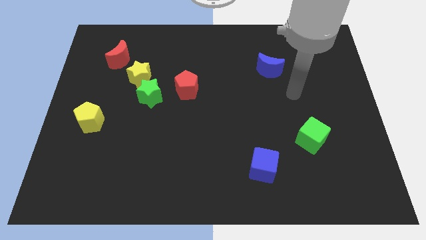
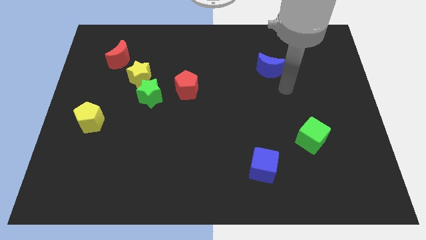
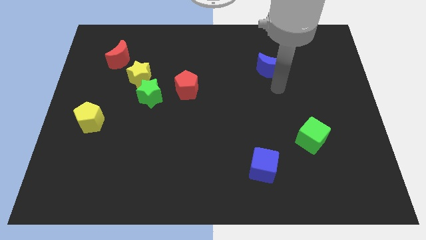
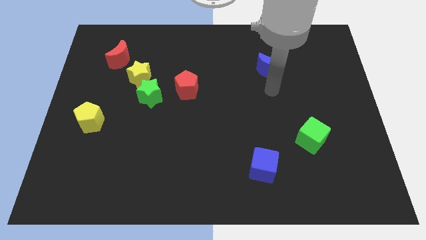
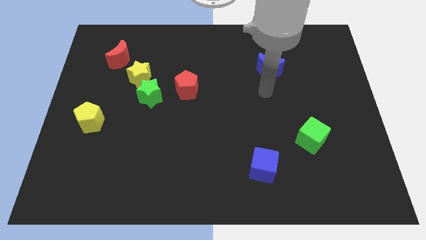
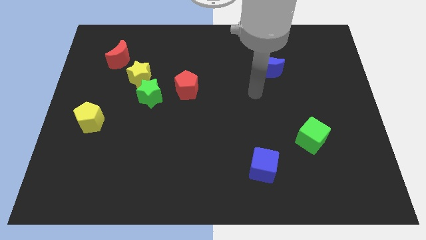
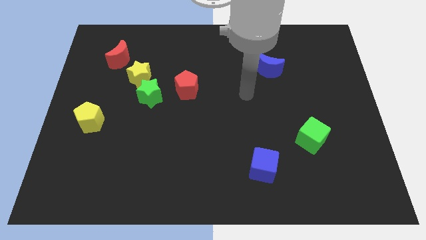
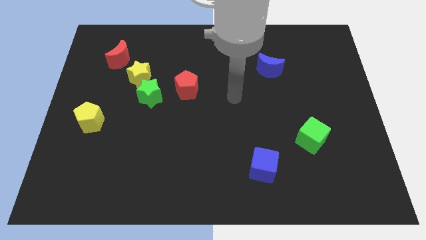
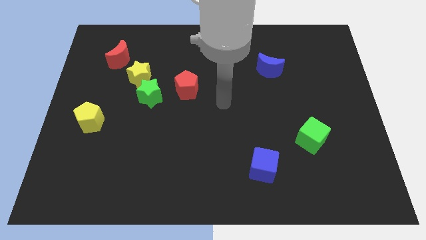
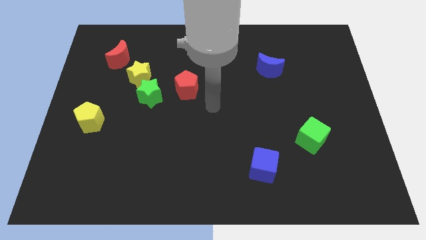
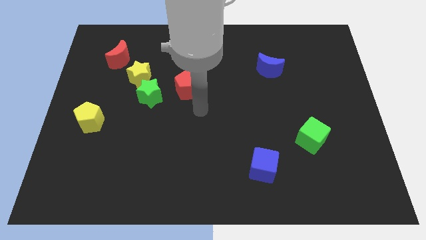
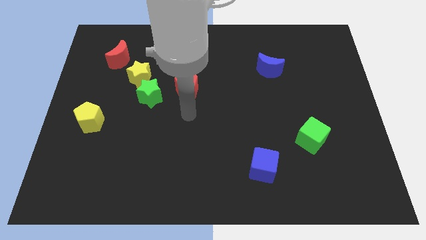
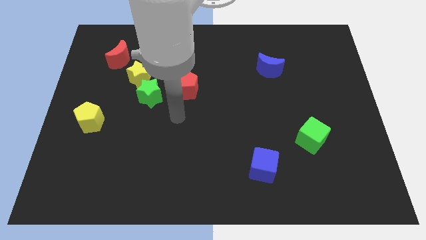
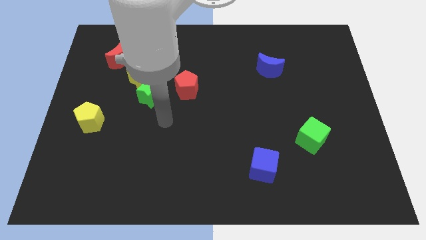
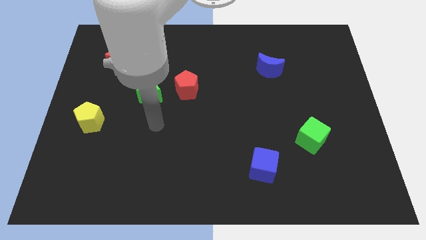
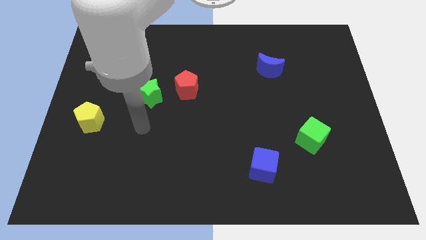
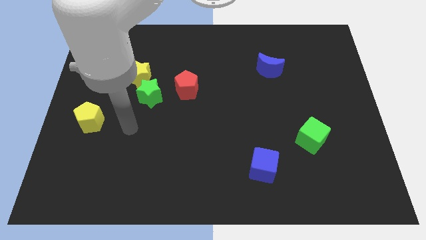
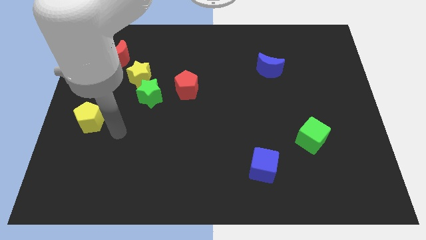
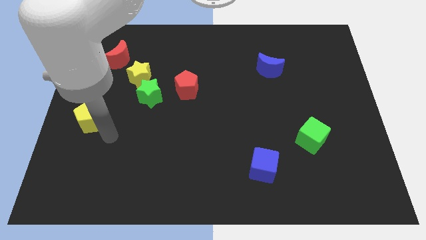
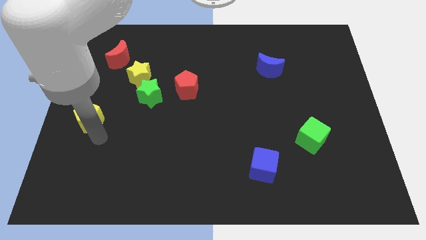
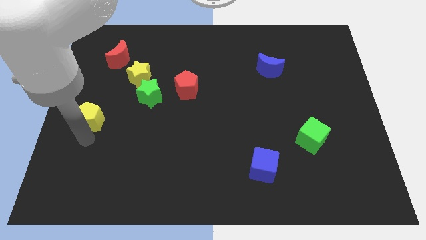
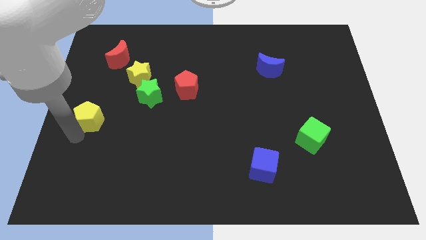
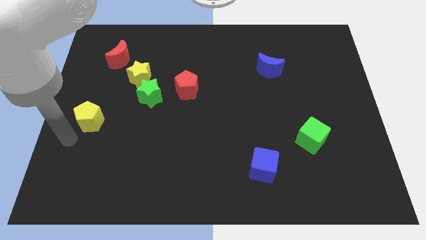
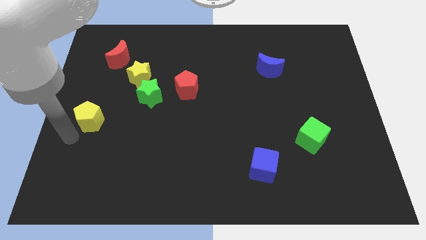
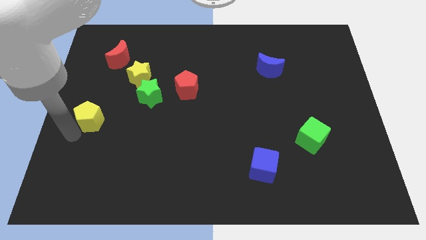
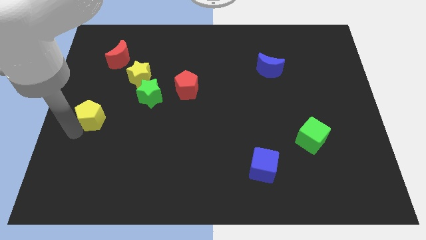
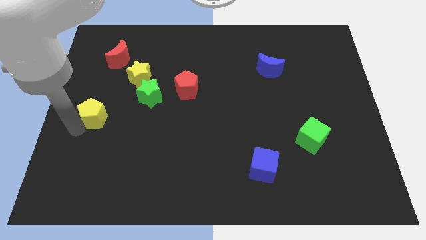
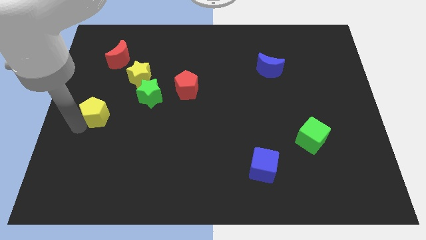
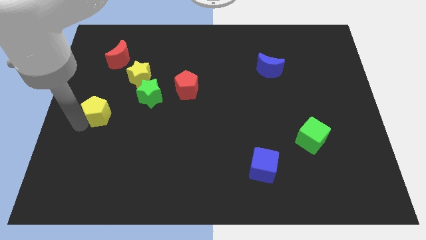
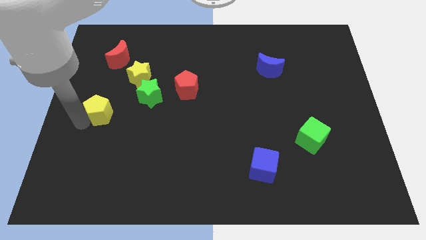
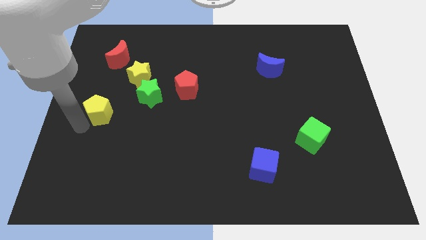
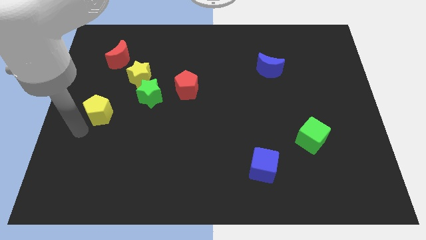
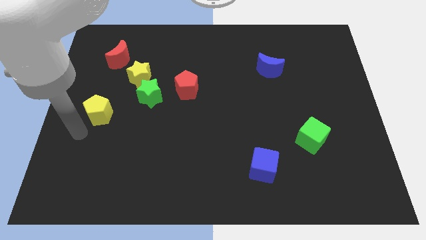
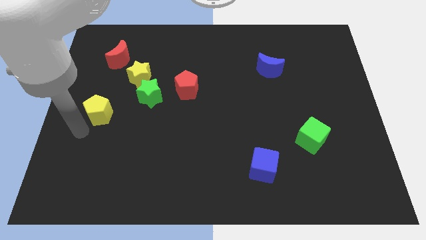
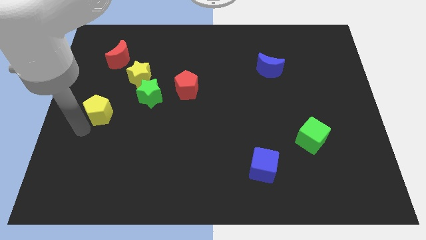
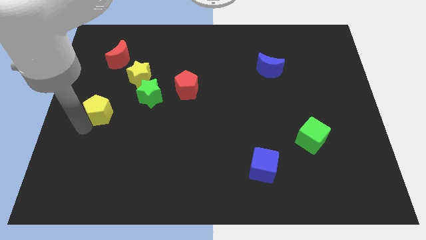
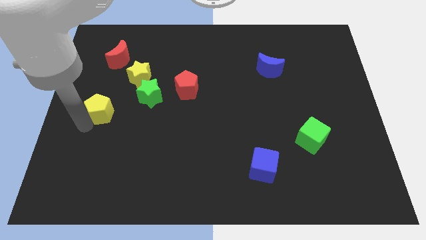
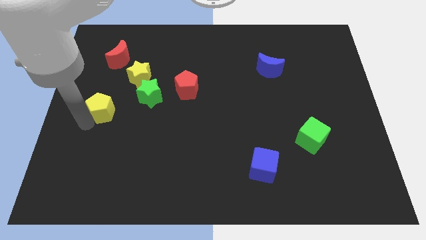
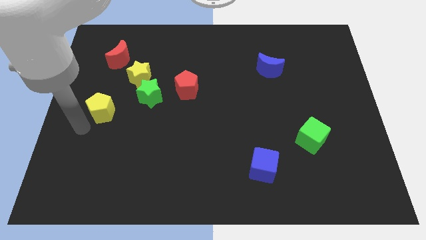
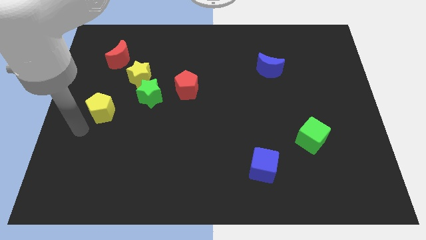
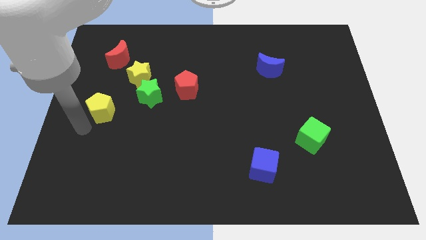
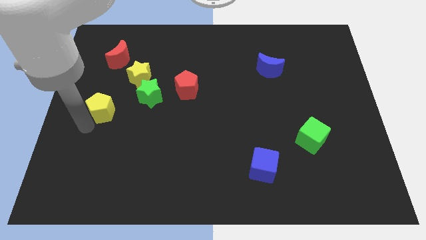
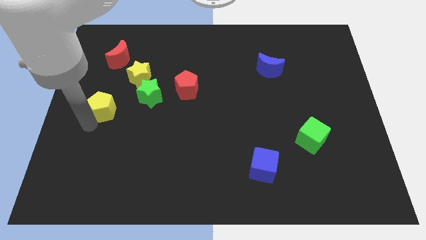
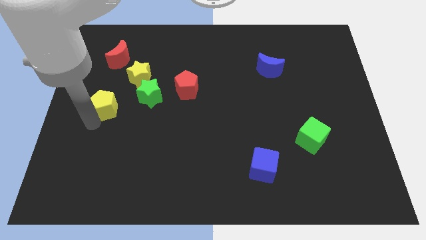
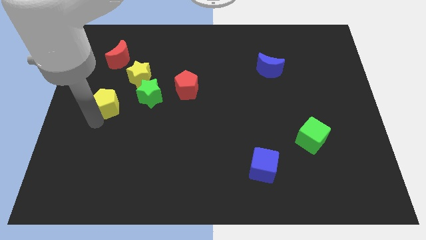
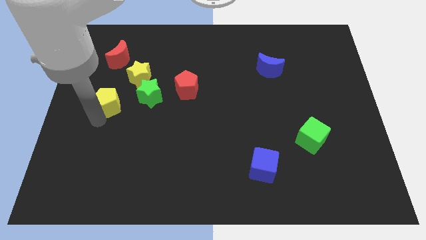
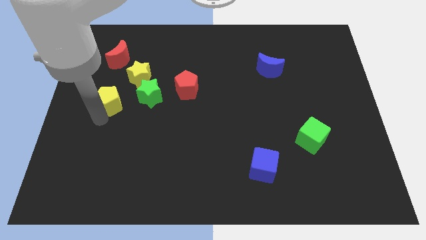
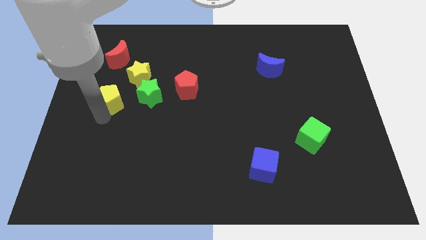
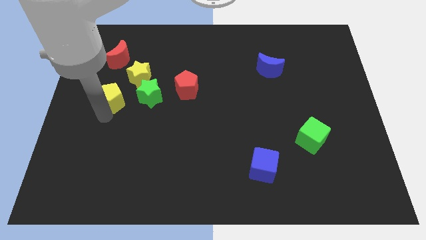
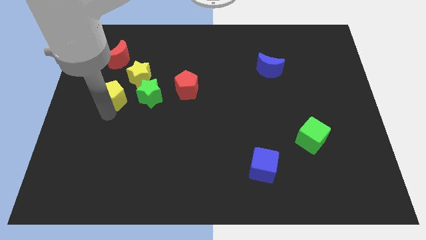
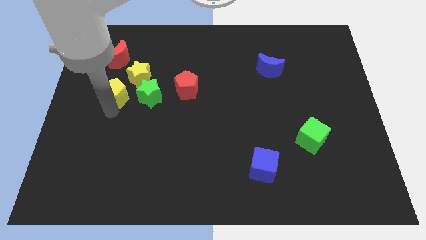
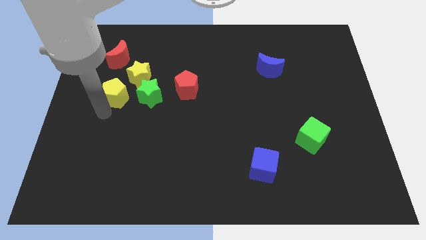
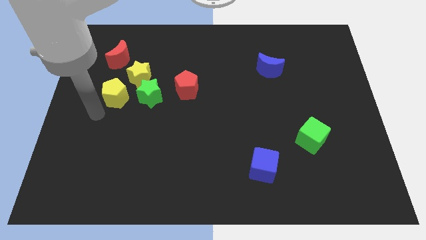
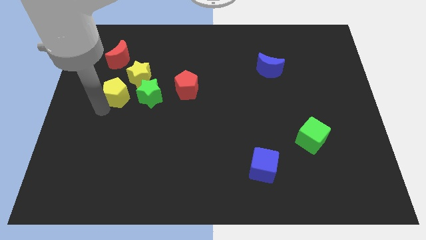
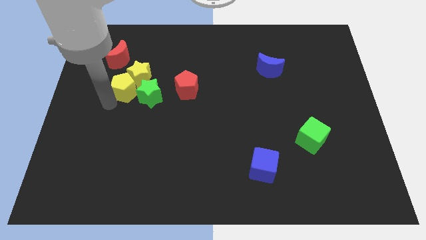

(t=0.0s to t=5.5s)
put the yellow pentagon next to the yellow star

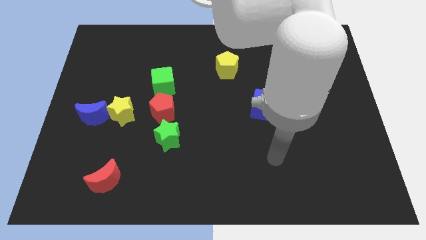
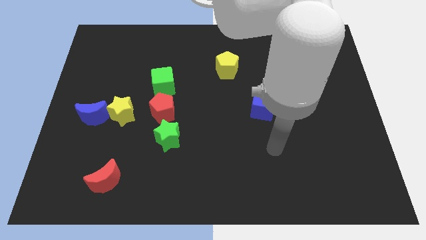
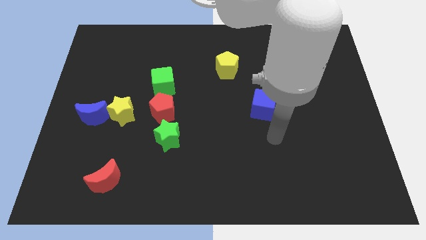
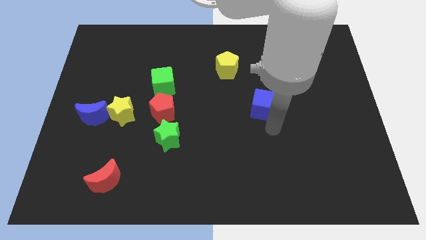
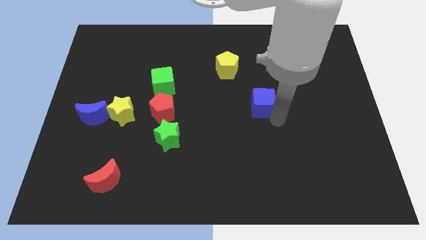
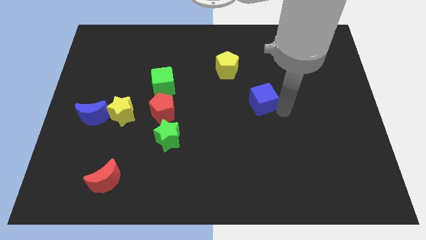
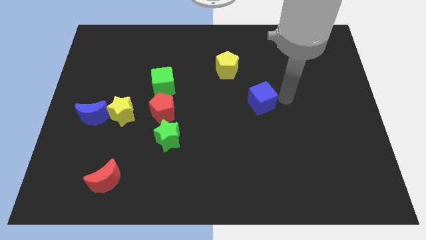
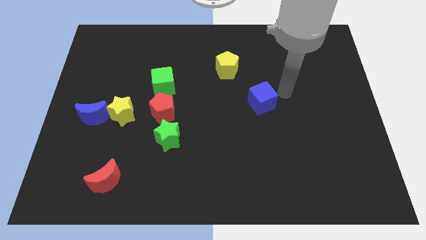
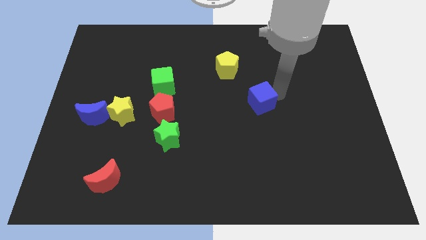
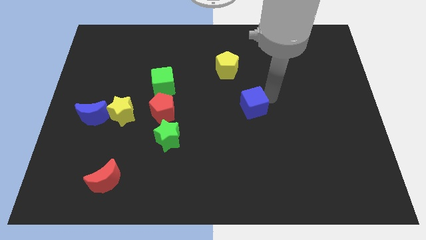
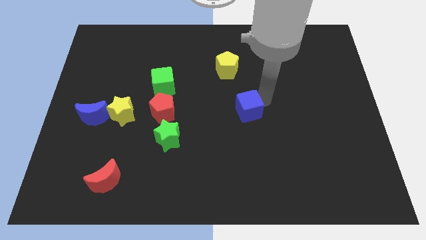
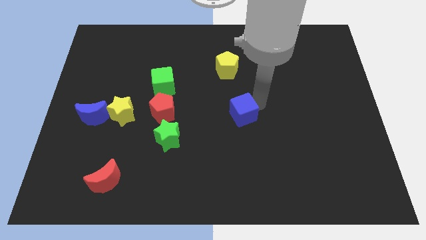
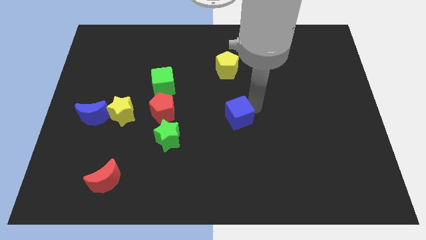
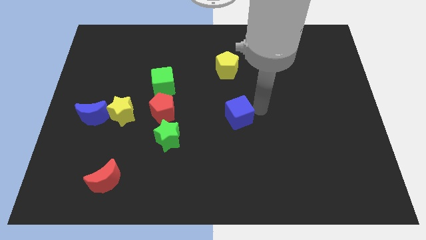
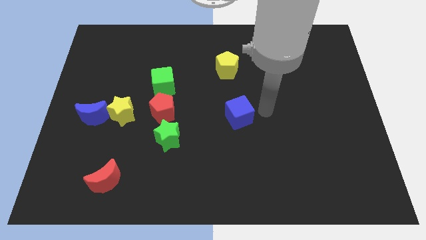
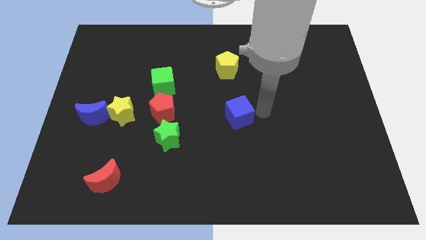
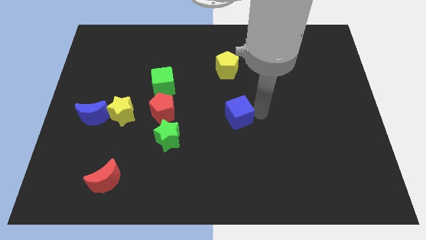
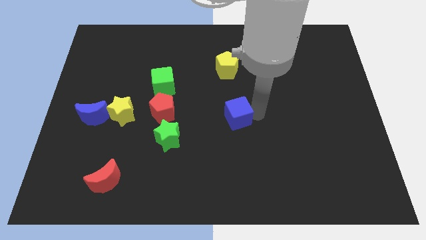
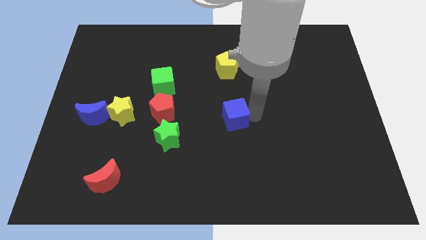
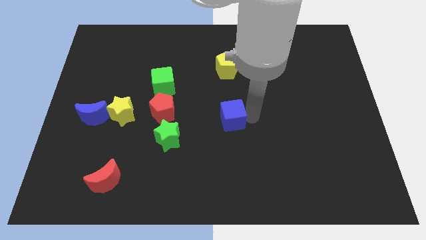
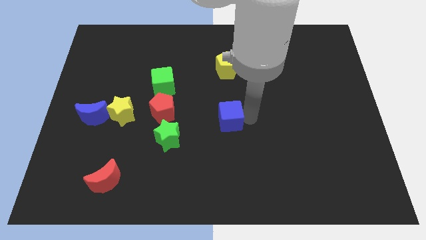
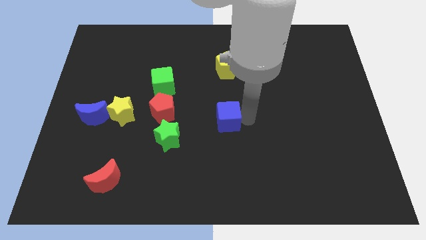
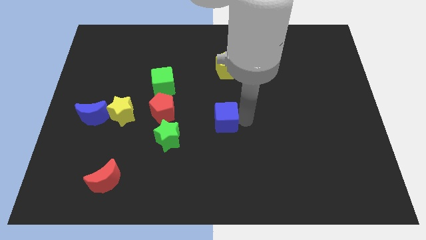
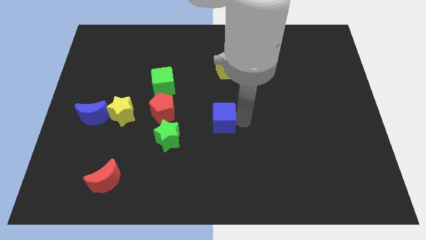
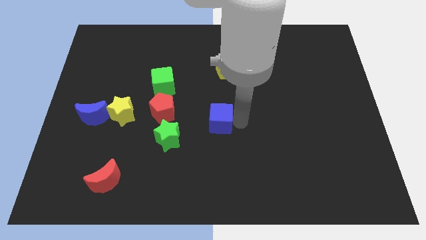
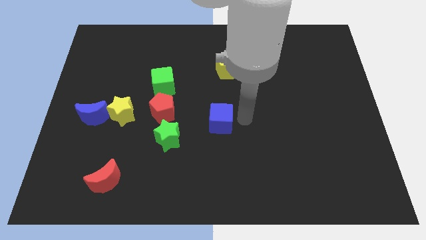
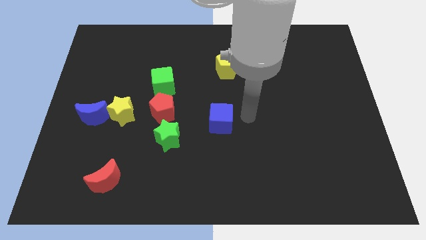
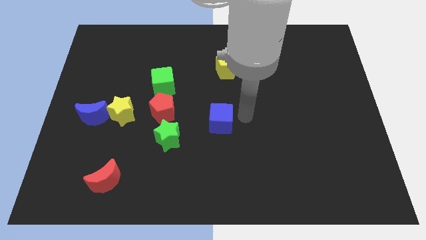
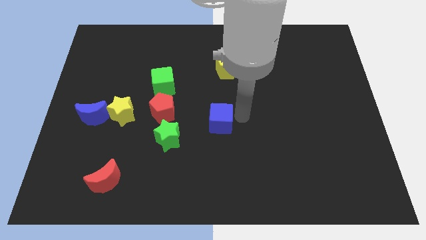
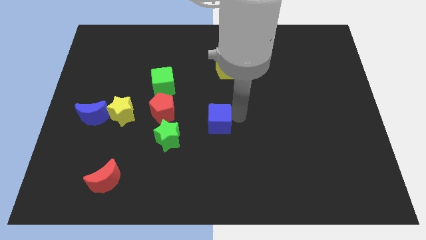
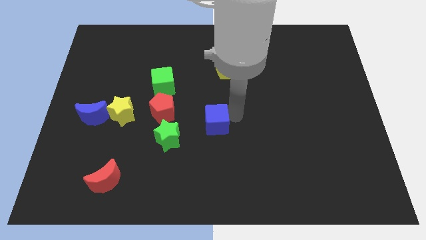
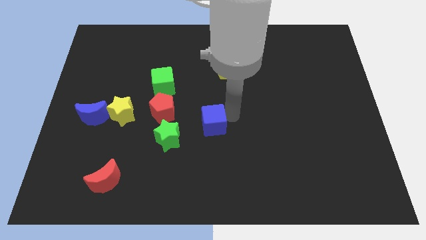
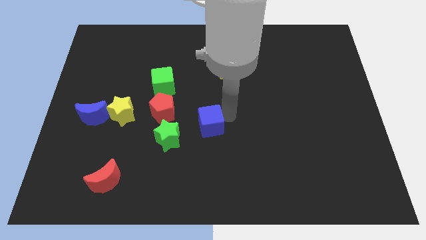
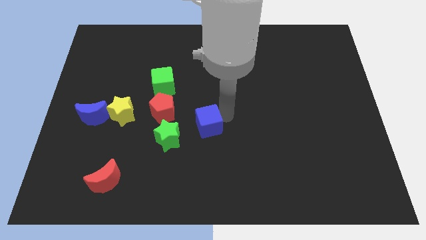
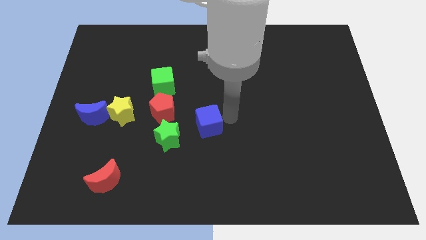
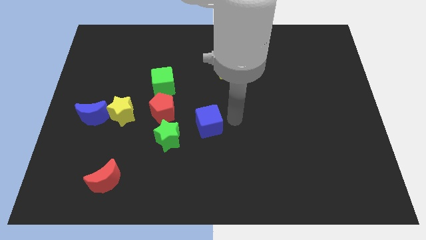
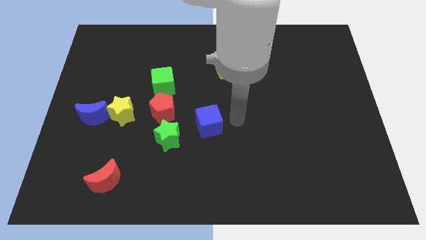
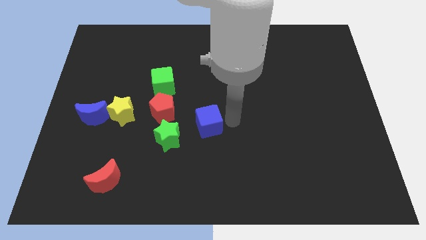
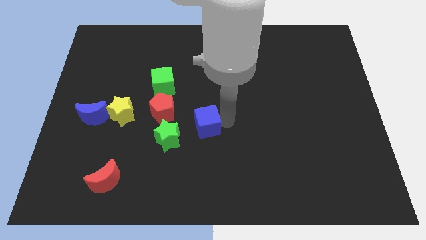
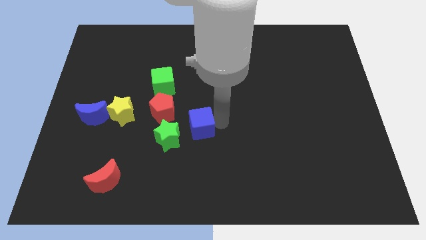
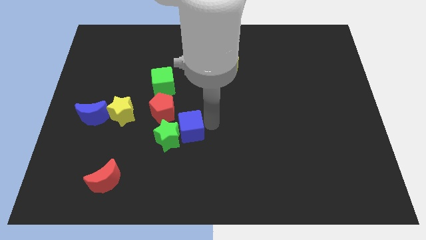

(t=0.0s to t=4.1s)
move the blue cube towards the green star
